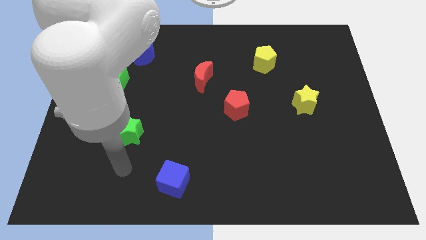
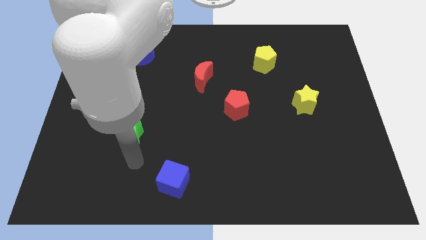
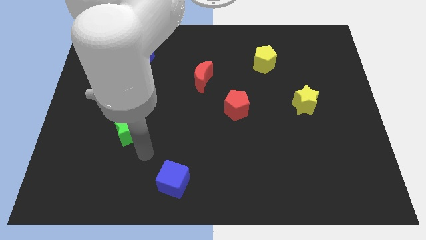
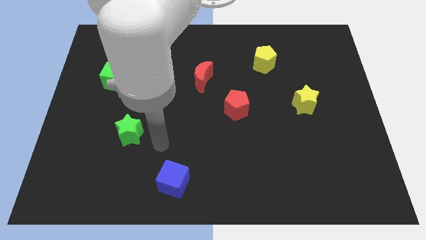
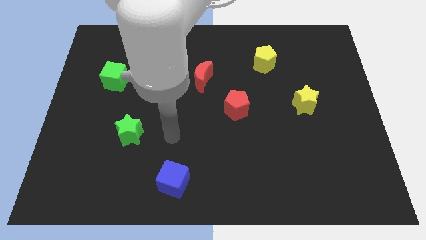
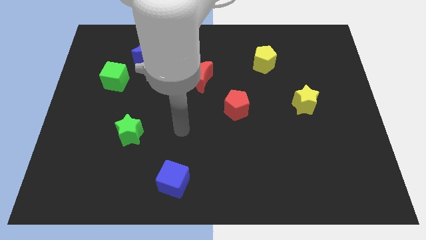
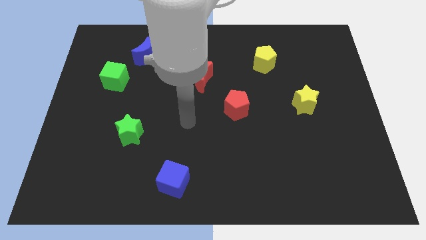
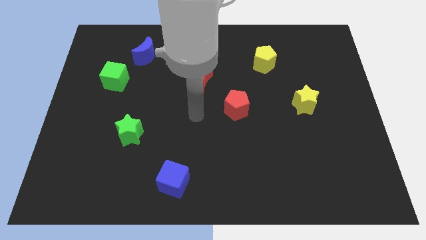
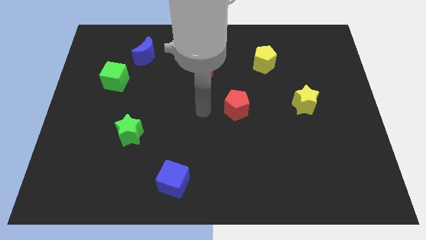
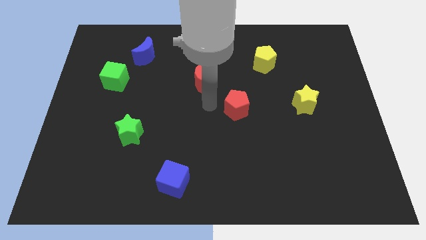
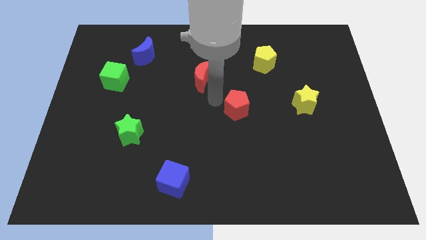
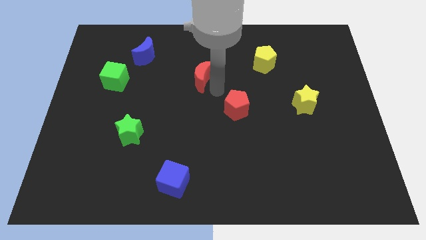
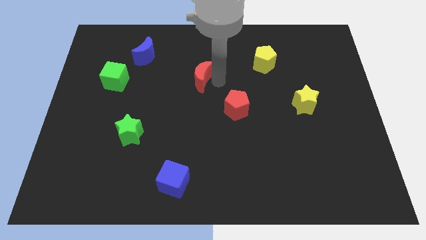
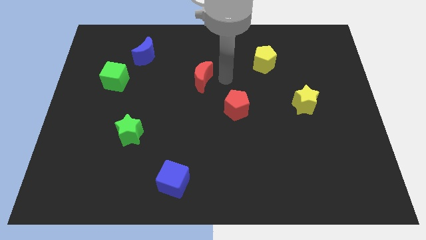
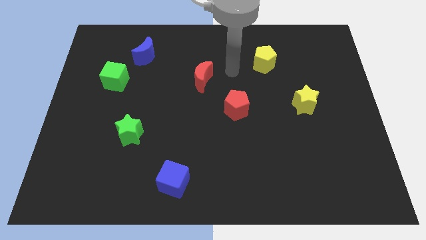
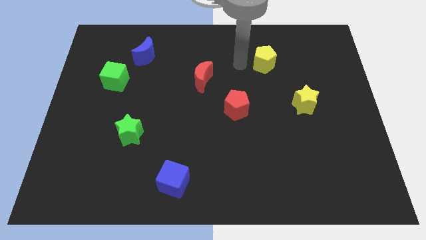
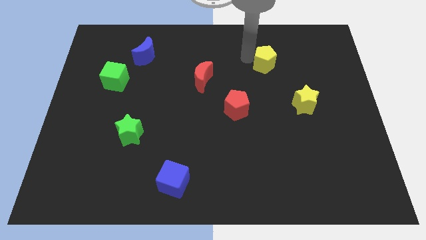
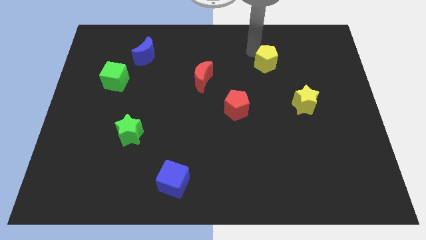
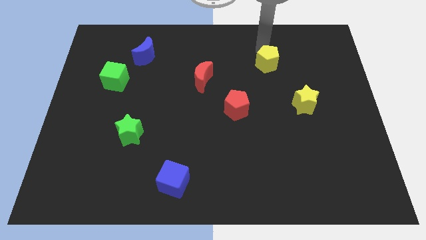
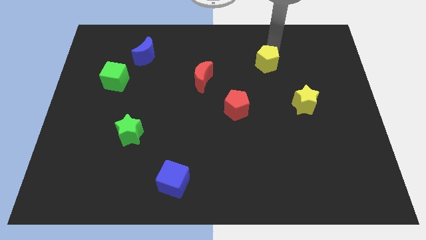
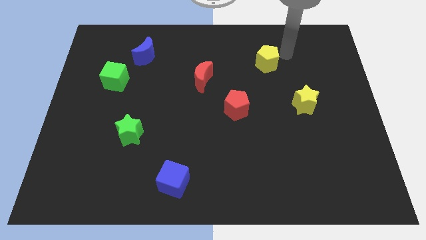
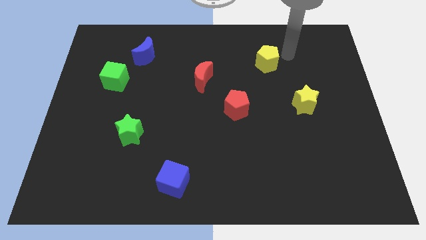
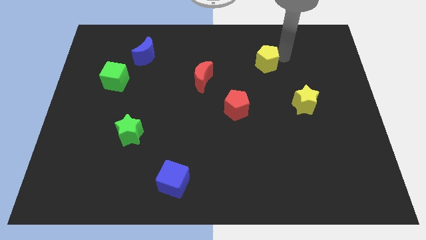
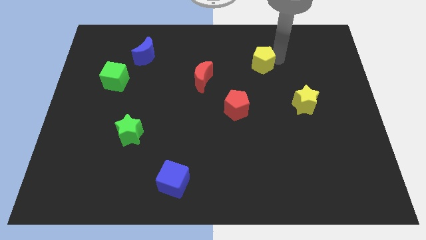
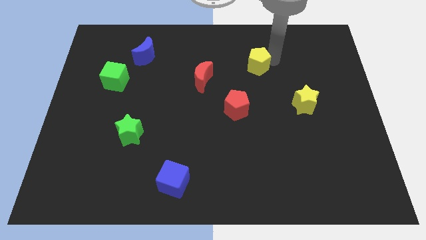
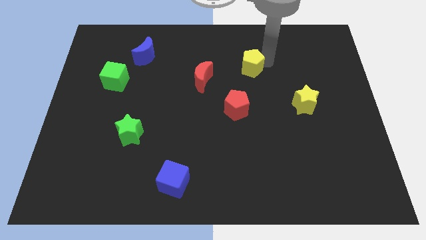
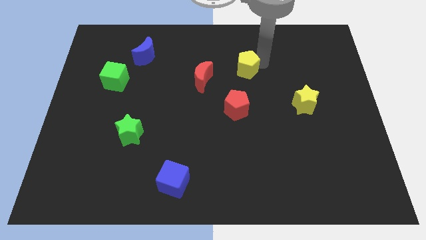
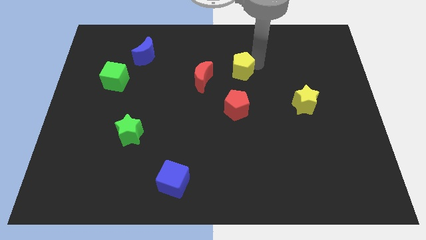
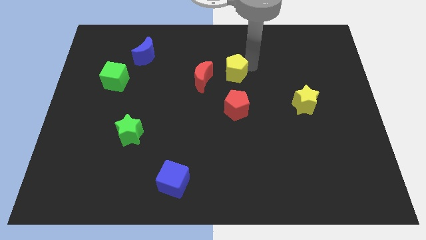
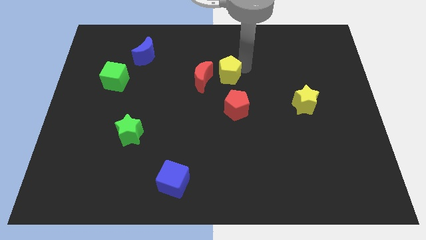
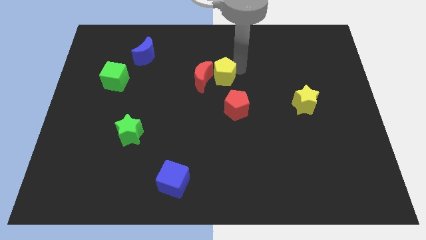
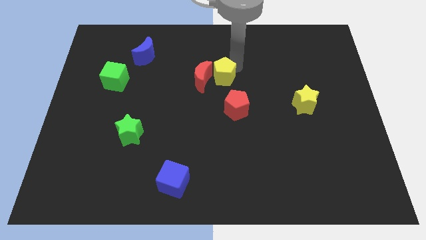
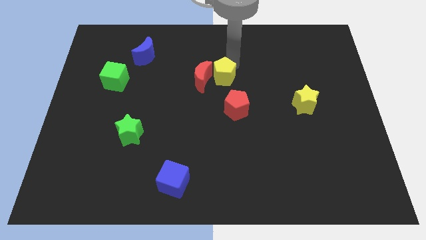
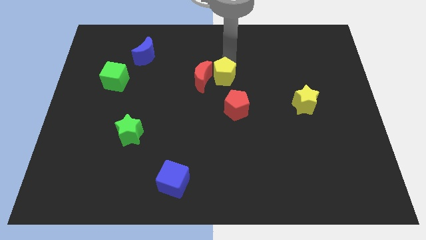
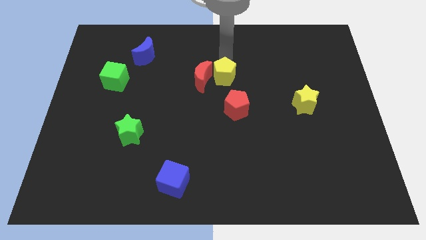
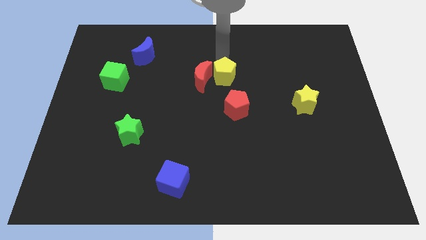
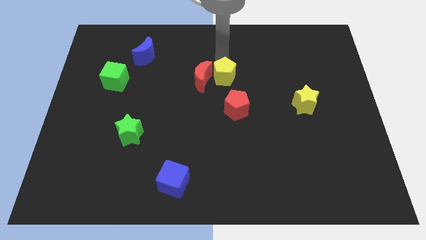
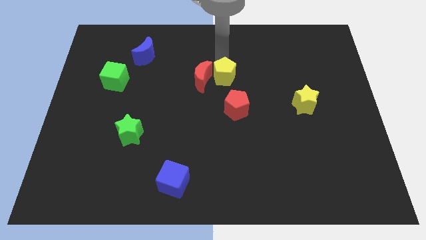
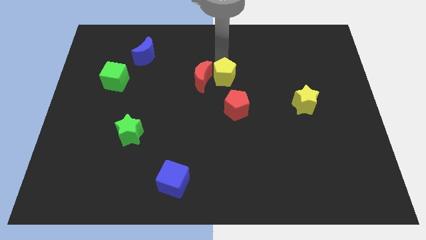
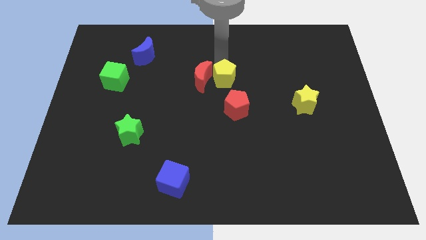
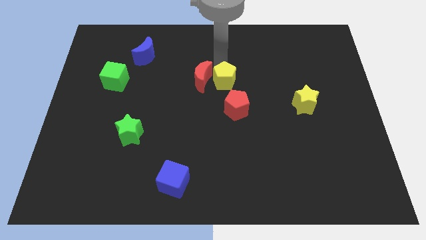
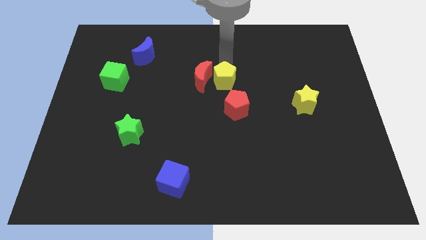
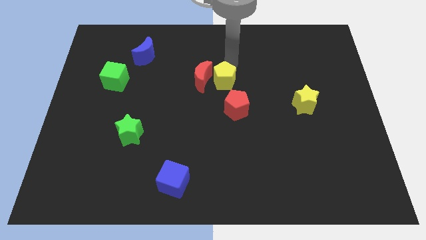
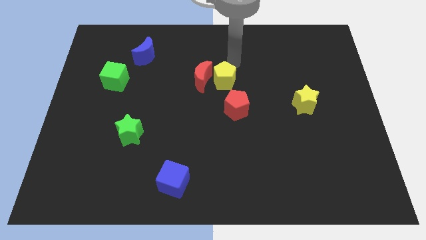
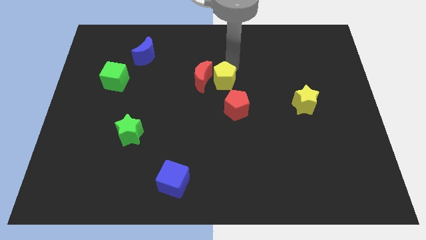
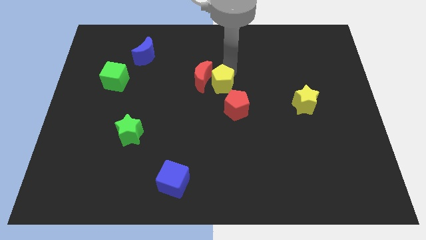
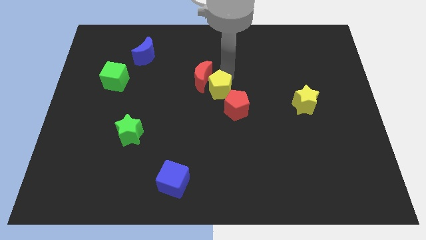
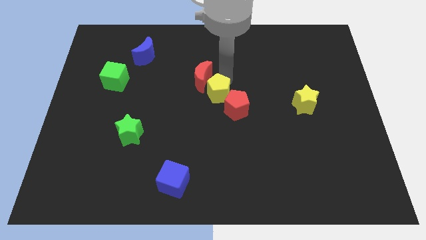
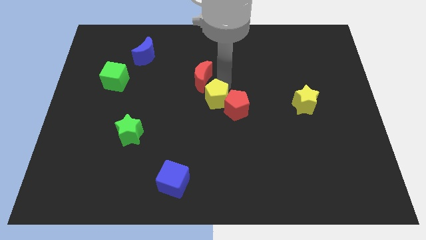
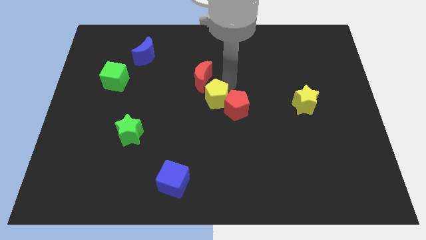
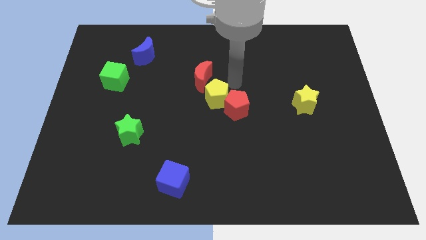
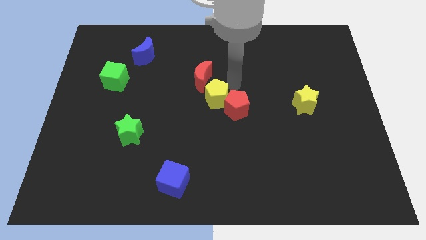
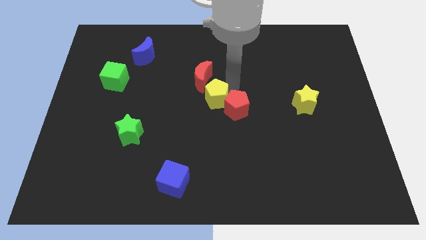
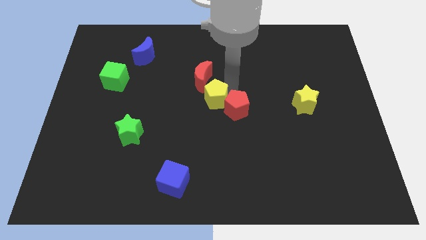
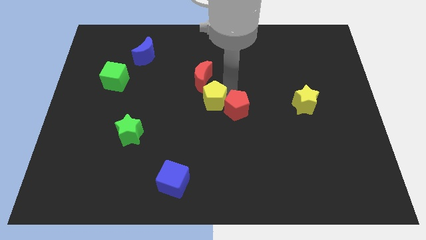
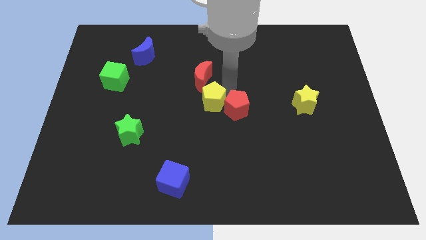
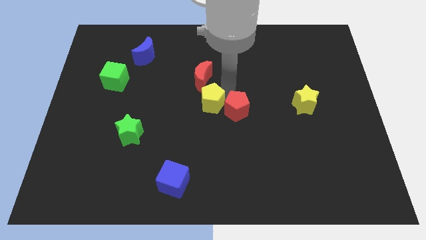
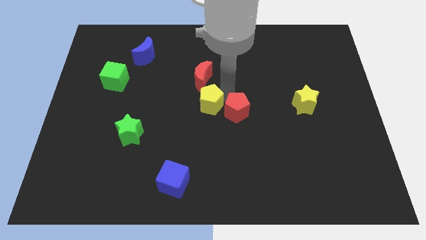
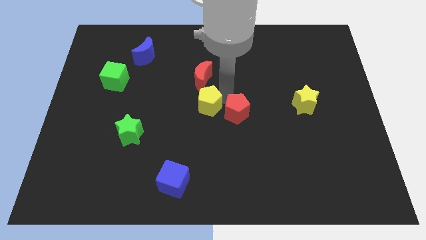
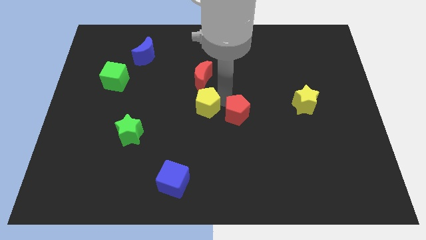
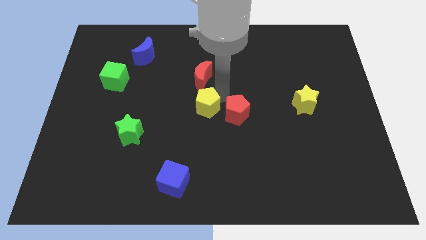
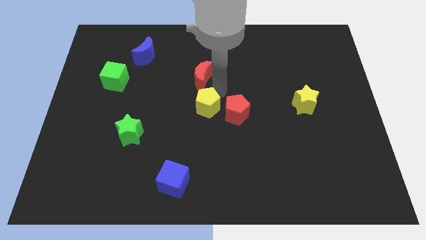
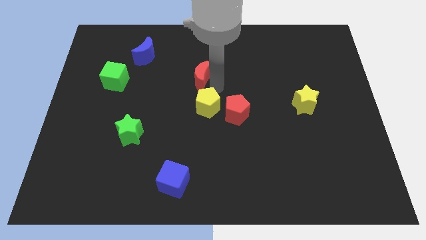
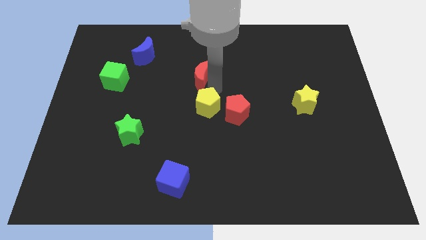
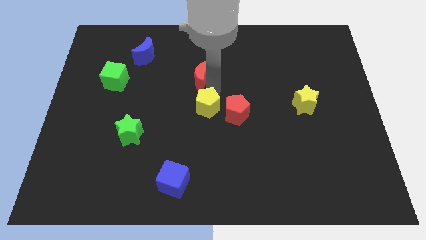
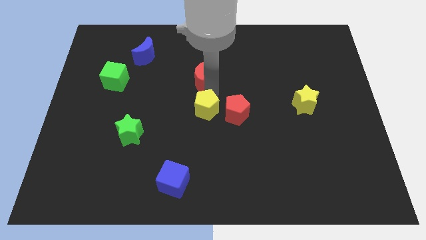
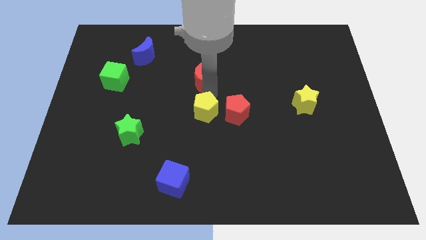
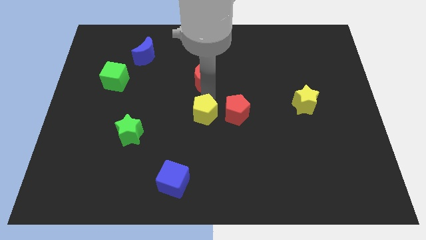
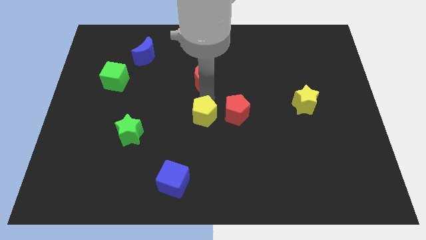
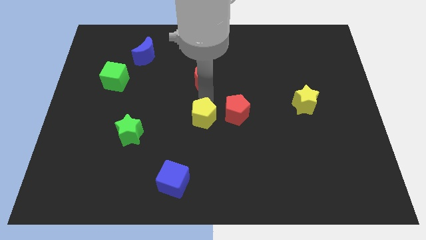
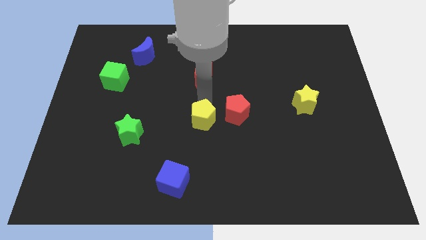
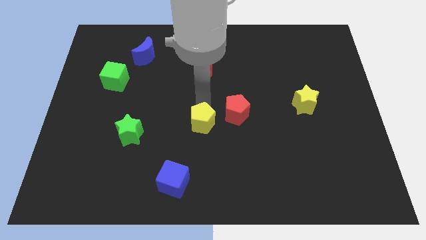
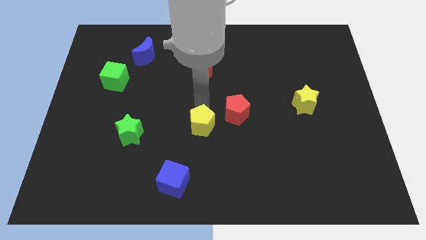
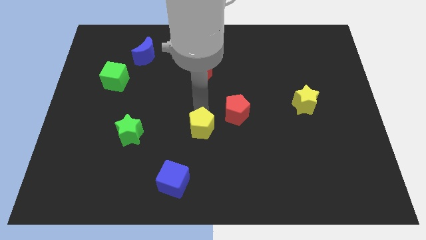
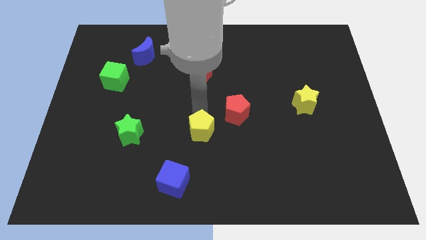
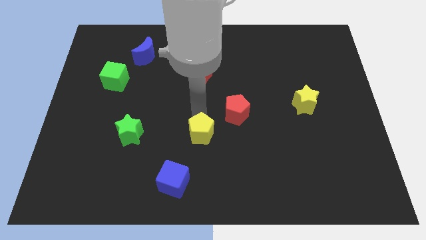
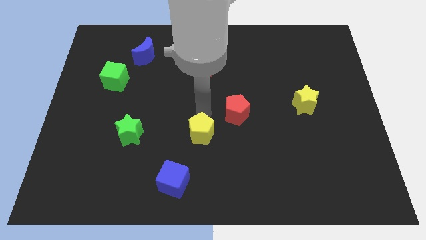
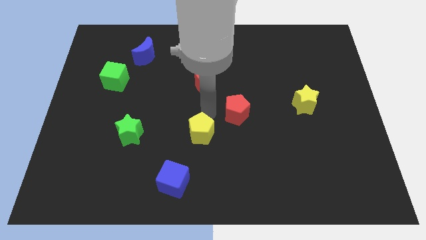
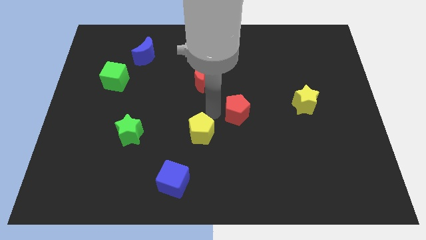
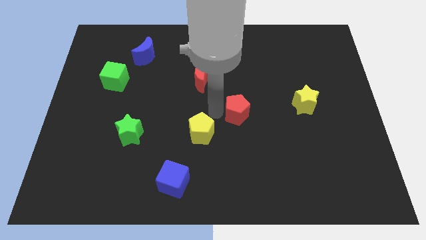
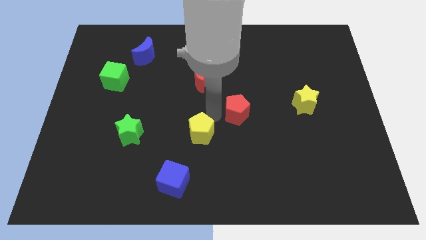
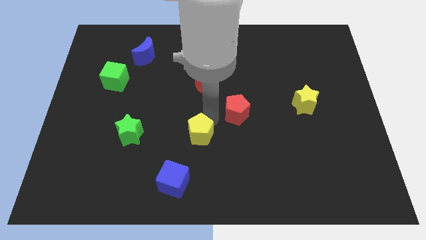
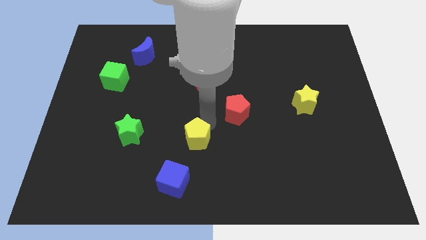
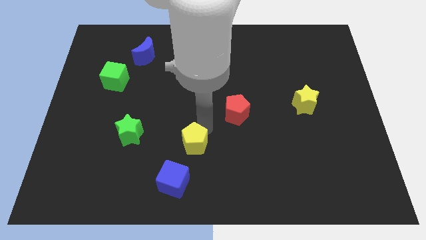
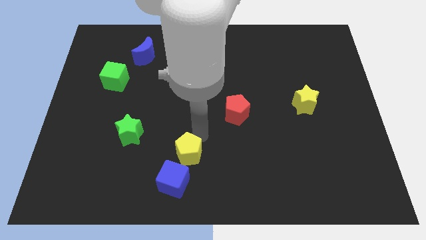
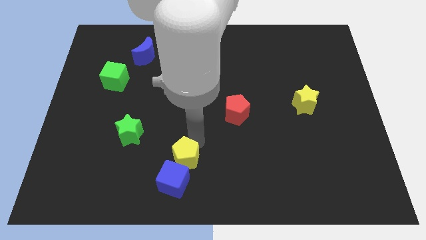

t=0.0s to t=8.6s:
push the yellow pentagon to the blue cube
